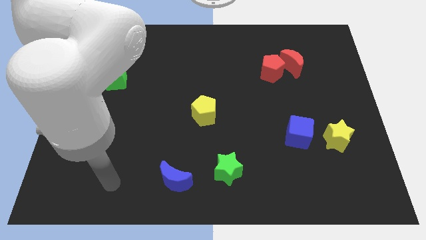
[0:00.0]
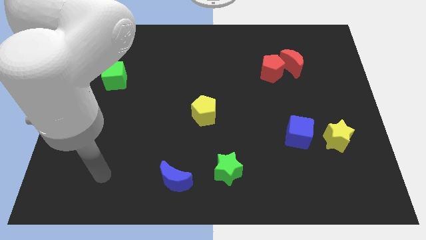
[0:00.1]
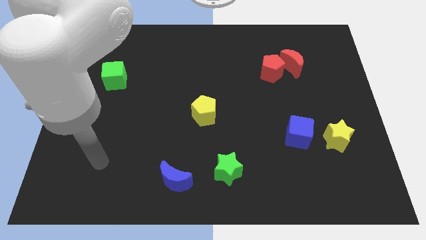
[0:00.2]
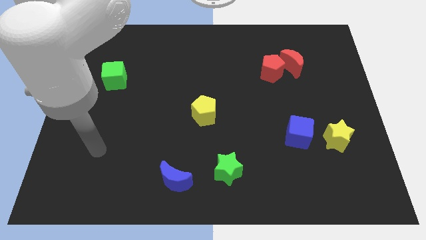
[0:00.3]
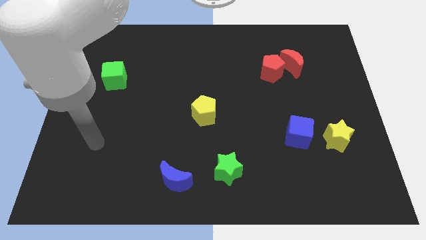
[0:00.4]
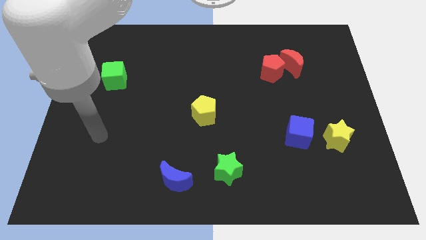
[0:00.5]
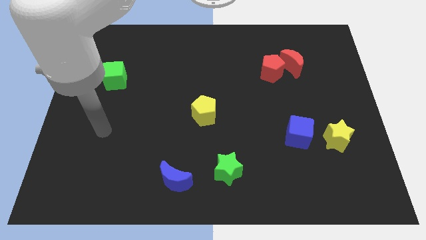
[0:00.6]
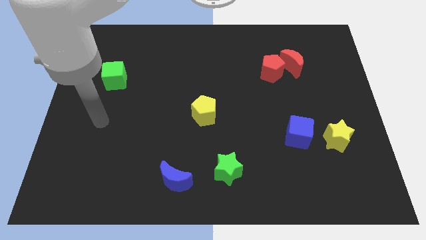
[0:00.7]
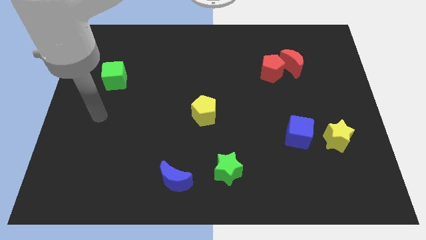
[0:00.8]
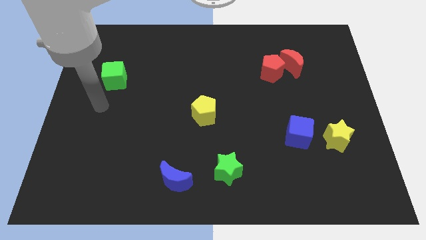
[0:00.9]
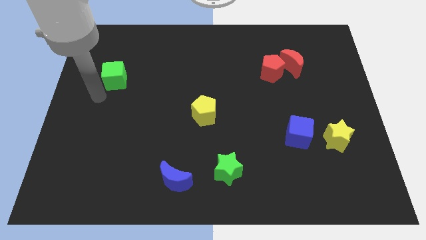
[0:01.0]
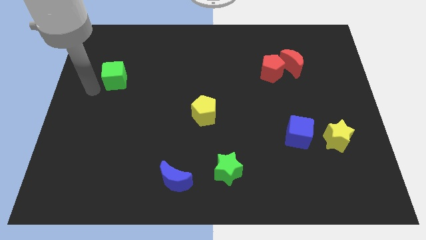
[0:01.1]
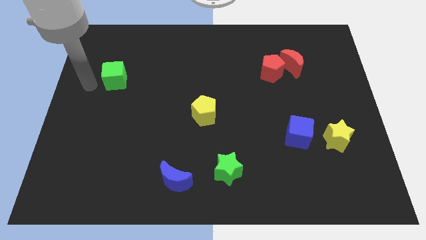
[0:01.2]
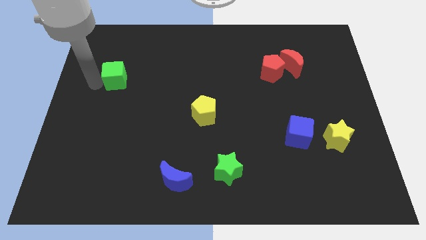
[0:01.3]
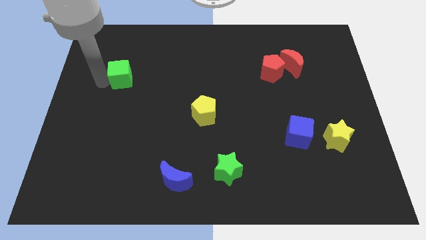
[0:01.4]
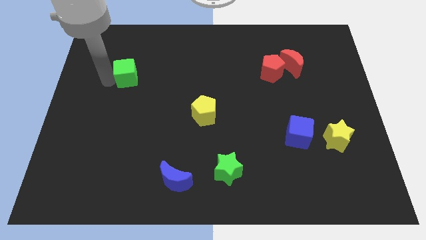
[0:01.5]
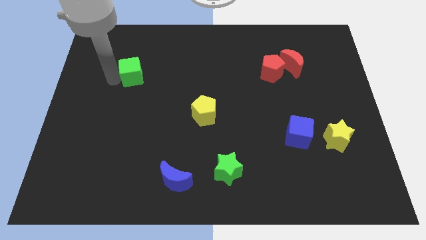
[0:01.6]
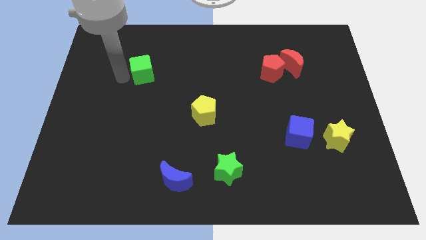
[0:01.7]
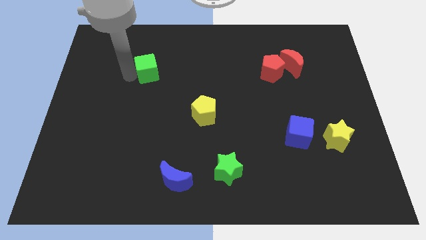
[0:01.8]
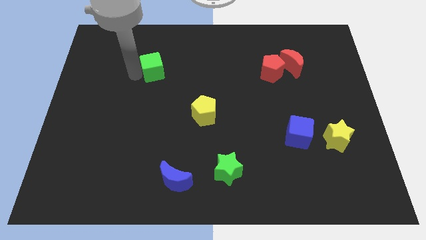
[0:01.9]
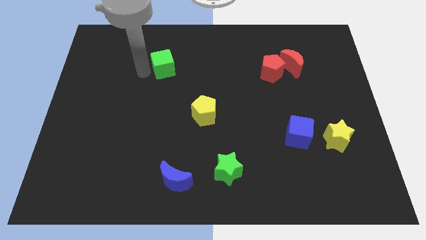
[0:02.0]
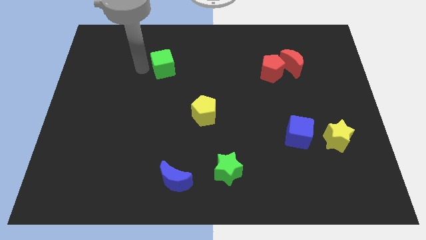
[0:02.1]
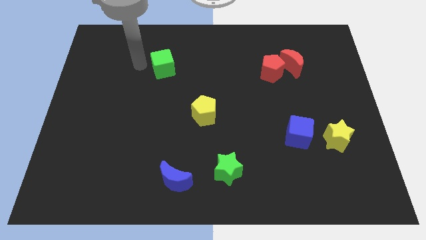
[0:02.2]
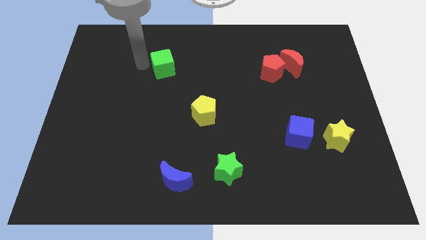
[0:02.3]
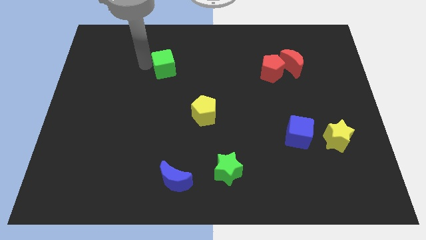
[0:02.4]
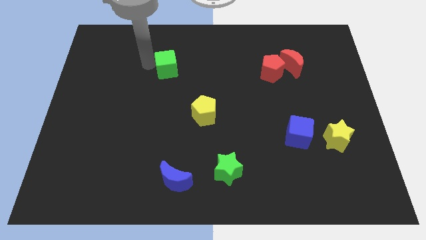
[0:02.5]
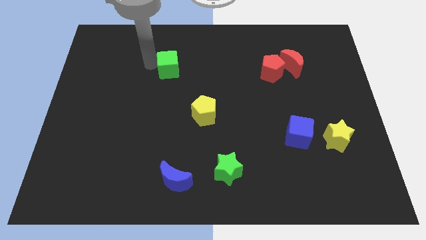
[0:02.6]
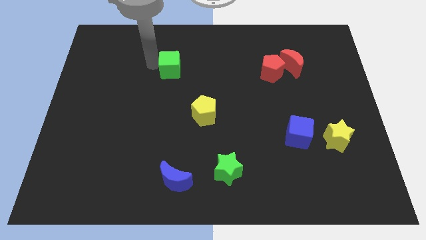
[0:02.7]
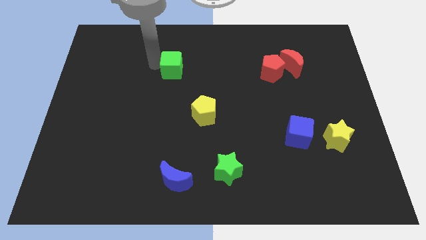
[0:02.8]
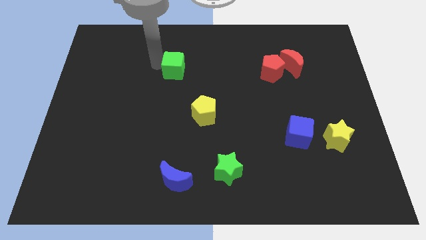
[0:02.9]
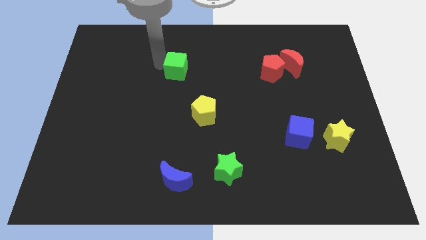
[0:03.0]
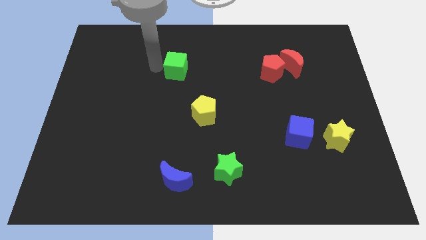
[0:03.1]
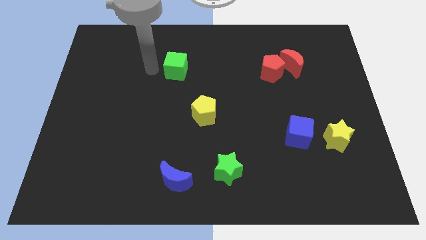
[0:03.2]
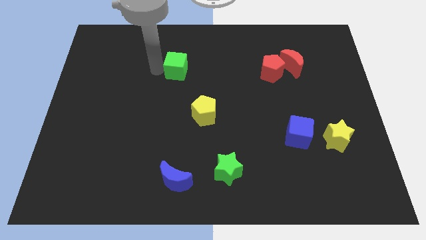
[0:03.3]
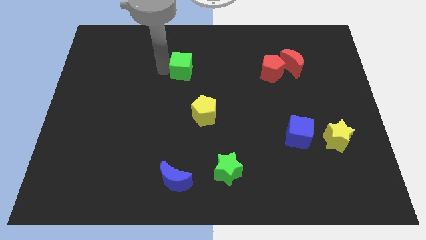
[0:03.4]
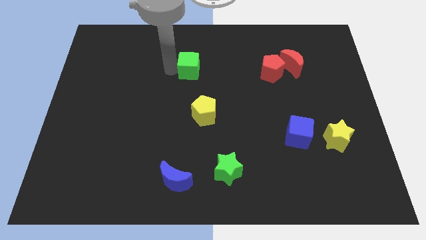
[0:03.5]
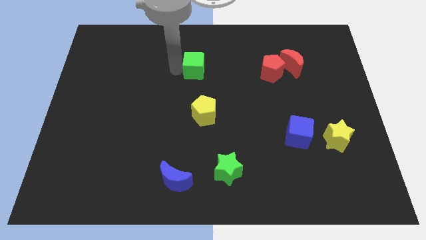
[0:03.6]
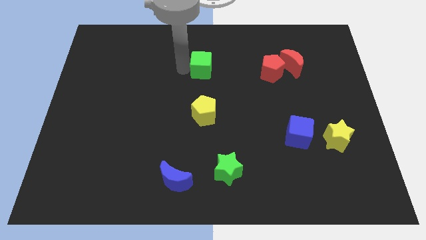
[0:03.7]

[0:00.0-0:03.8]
slide the green cube to the right

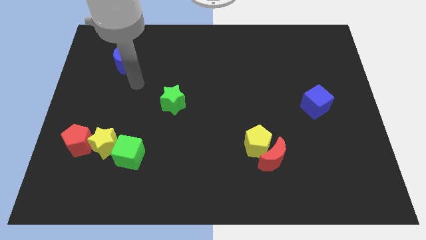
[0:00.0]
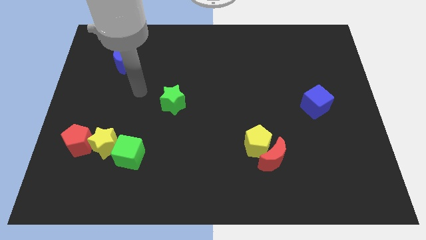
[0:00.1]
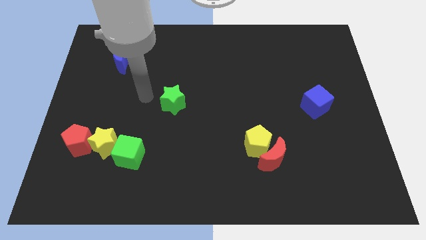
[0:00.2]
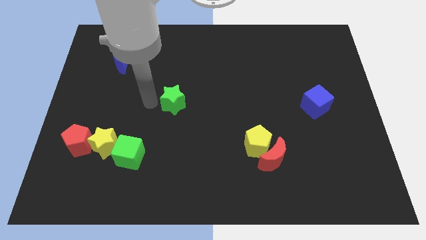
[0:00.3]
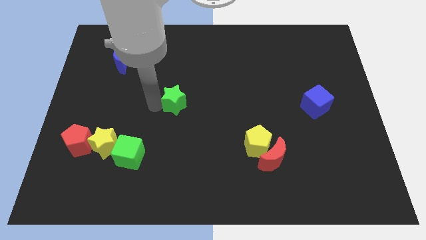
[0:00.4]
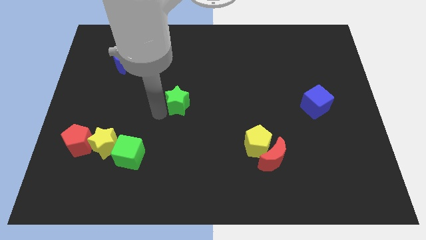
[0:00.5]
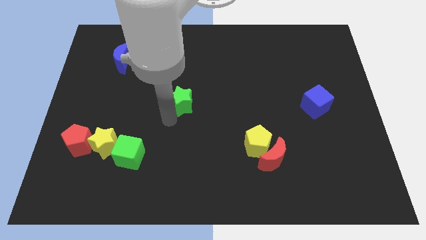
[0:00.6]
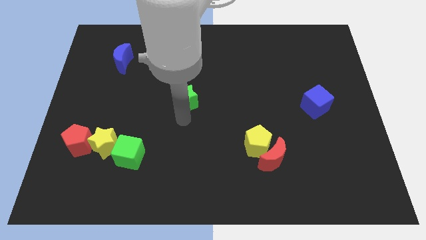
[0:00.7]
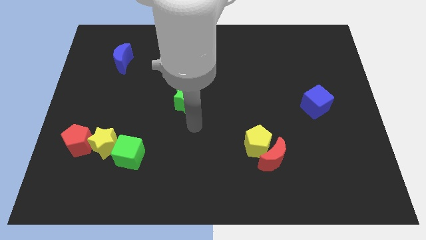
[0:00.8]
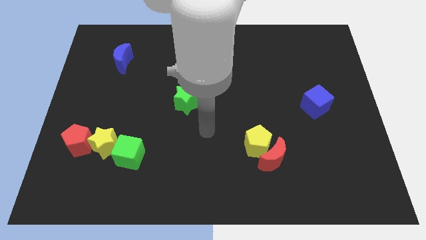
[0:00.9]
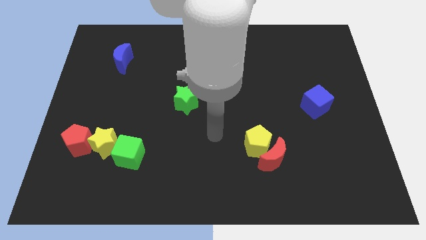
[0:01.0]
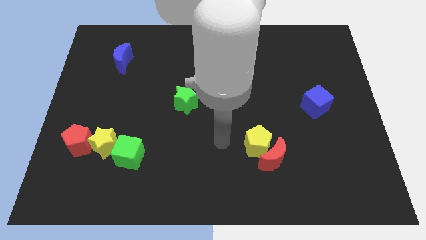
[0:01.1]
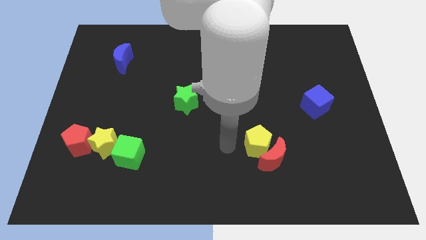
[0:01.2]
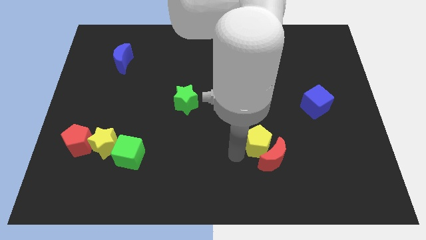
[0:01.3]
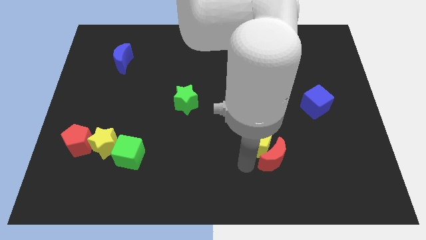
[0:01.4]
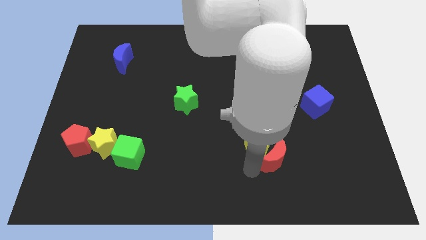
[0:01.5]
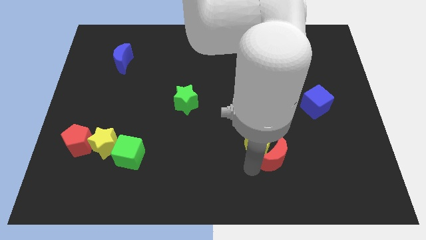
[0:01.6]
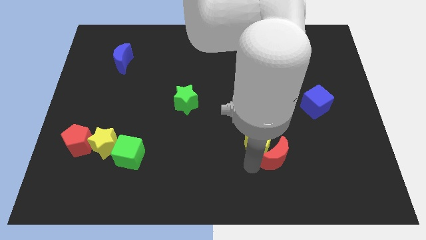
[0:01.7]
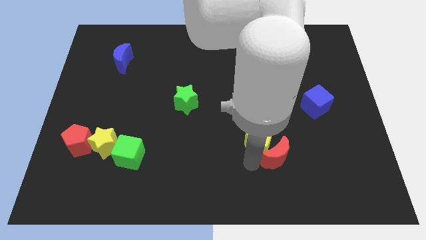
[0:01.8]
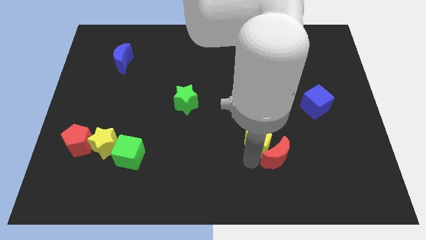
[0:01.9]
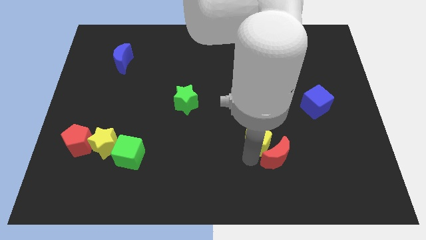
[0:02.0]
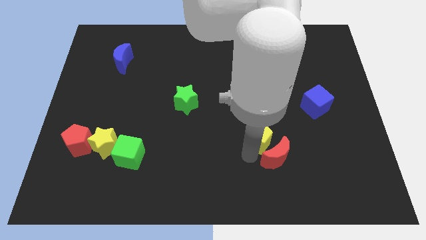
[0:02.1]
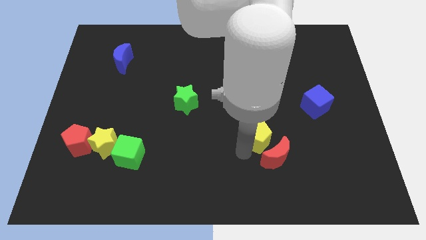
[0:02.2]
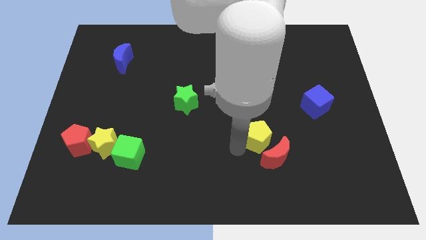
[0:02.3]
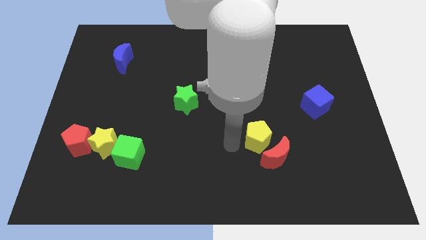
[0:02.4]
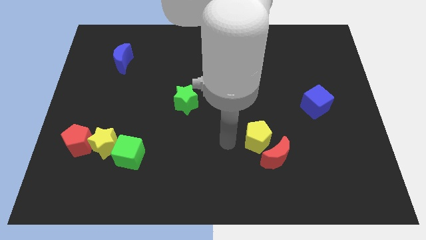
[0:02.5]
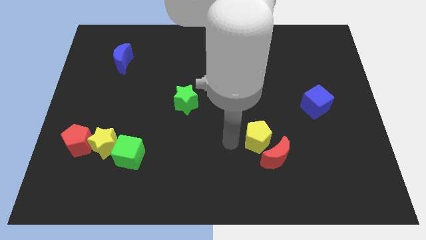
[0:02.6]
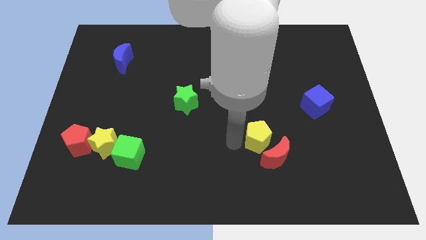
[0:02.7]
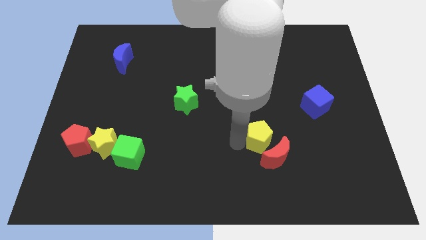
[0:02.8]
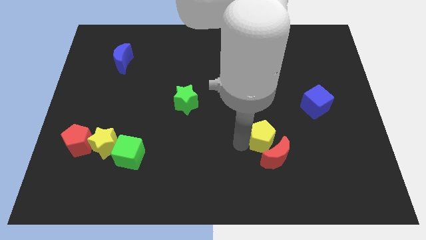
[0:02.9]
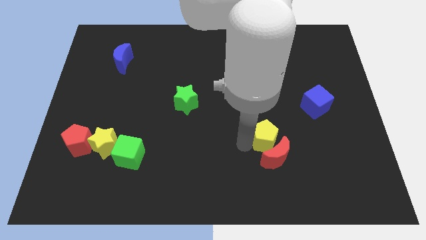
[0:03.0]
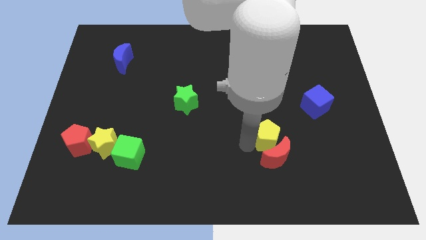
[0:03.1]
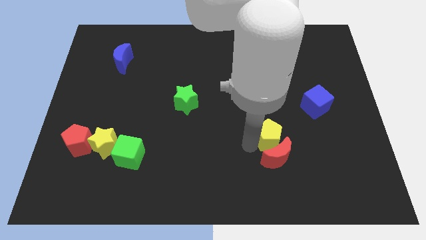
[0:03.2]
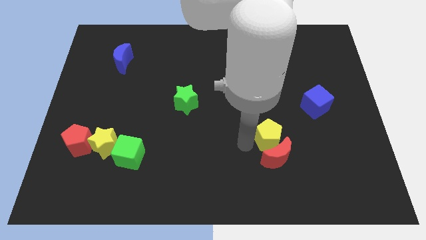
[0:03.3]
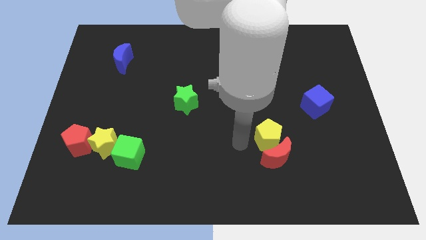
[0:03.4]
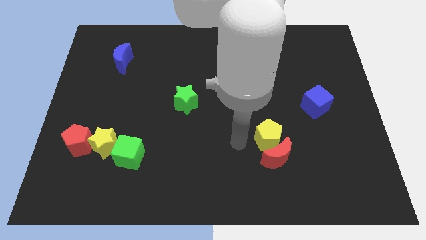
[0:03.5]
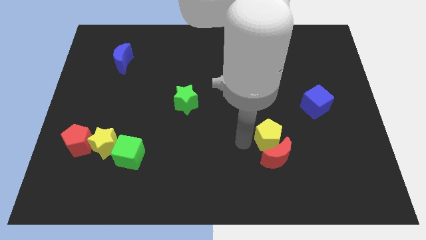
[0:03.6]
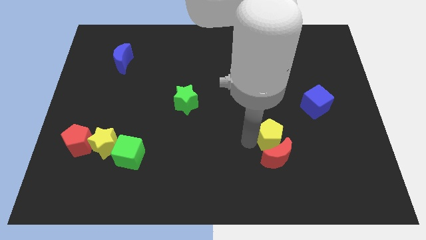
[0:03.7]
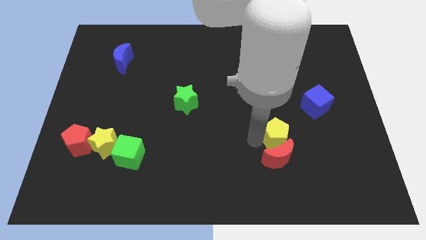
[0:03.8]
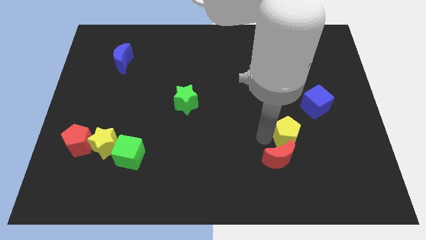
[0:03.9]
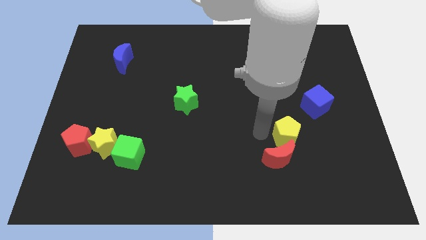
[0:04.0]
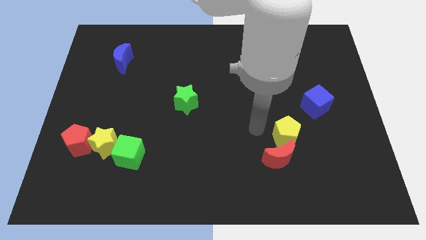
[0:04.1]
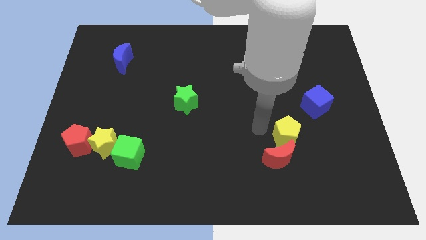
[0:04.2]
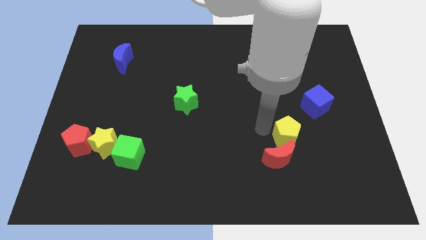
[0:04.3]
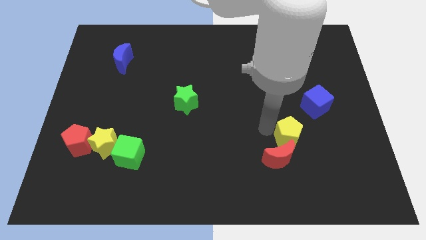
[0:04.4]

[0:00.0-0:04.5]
move the yellow pentagon to the right somewhat
